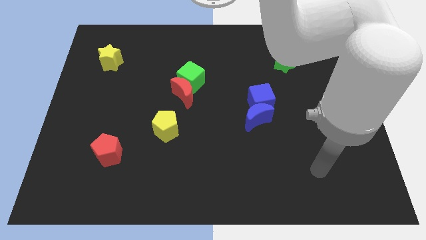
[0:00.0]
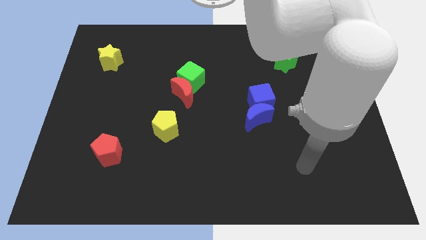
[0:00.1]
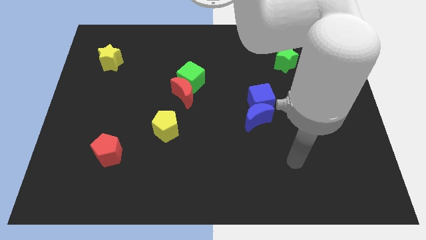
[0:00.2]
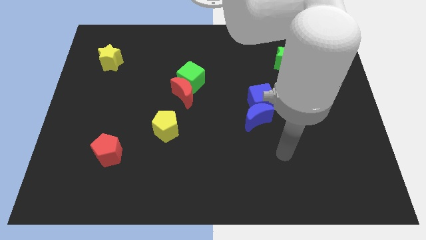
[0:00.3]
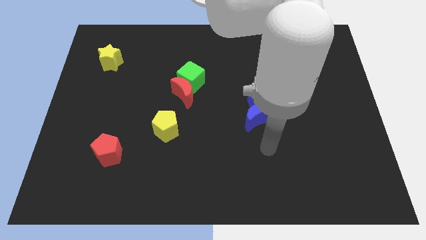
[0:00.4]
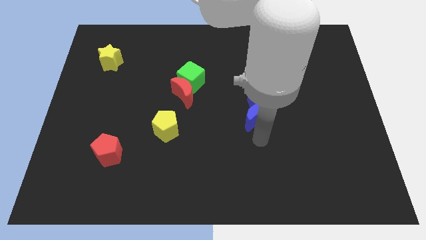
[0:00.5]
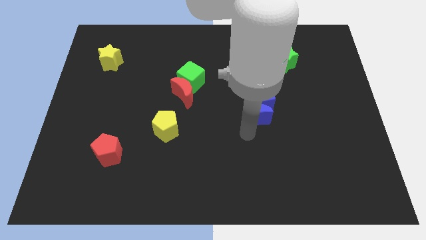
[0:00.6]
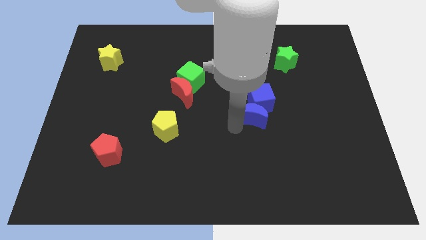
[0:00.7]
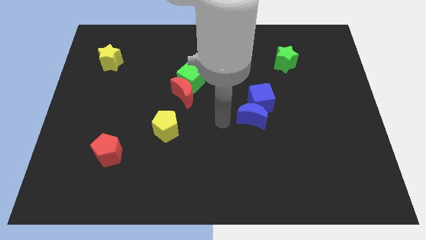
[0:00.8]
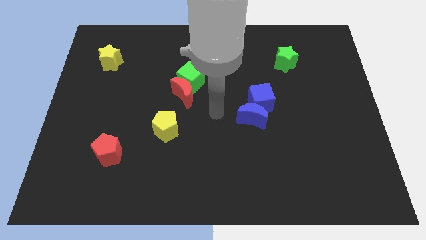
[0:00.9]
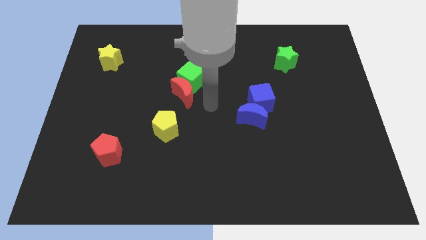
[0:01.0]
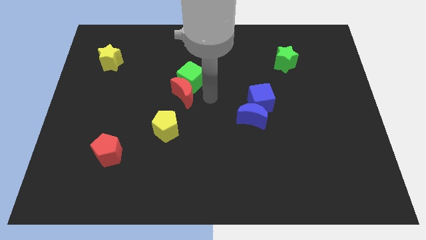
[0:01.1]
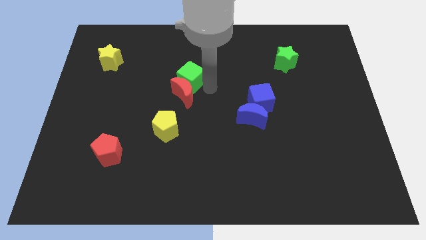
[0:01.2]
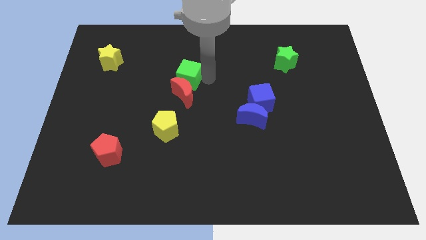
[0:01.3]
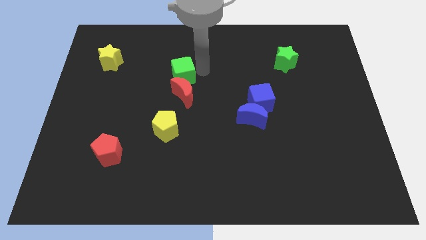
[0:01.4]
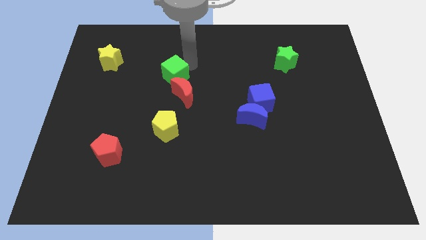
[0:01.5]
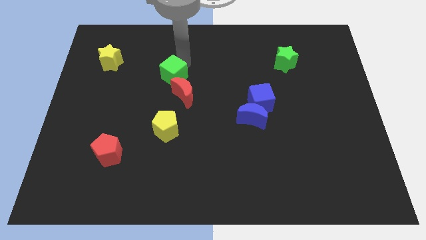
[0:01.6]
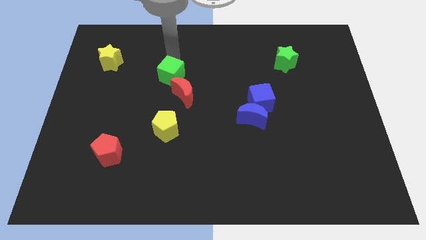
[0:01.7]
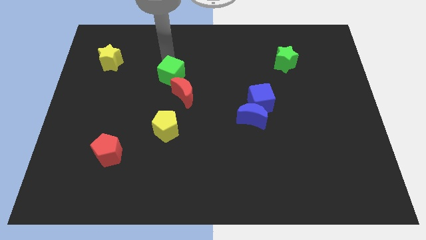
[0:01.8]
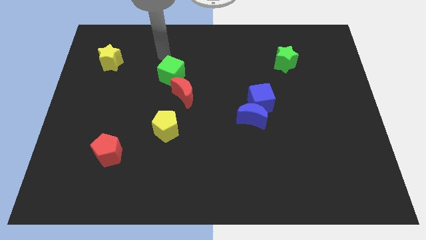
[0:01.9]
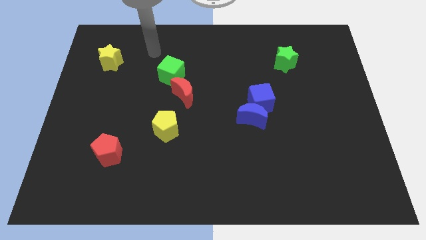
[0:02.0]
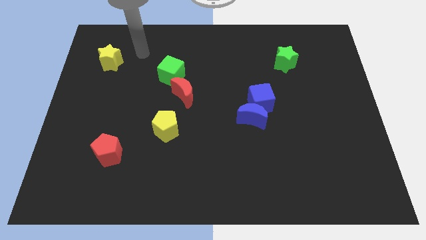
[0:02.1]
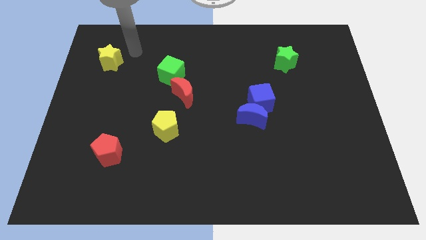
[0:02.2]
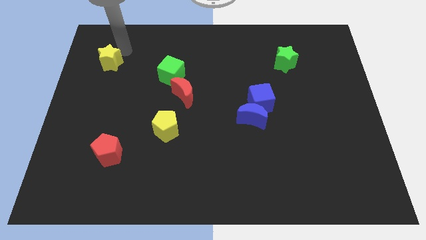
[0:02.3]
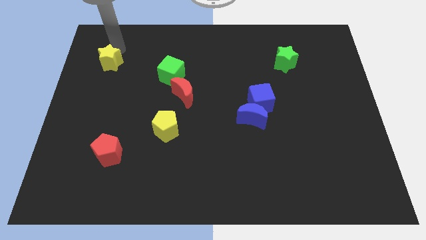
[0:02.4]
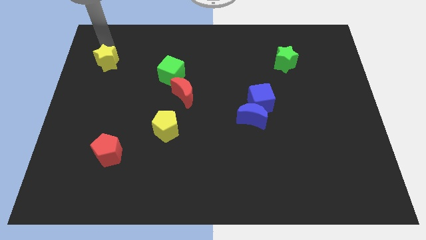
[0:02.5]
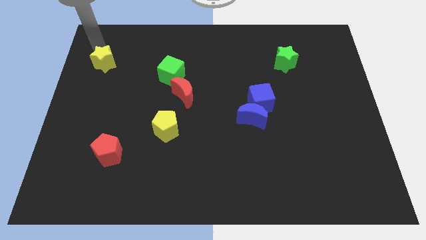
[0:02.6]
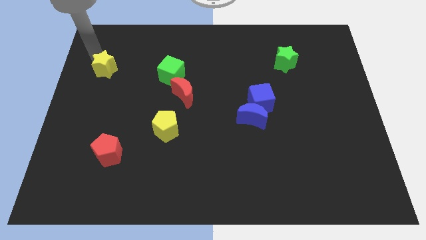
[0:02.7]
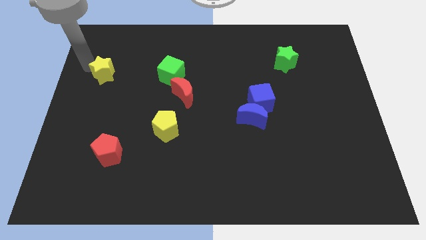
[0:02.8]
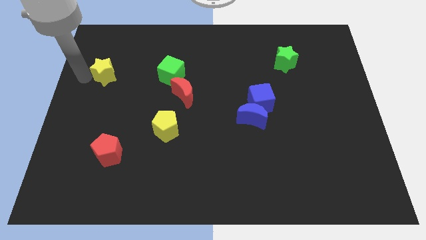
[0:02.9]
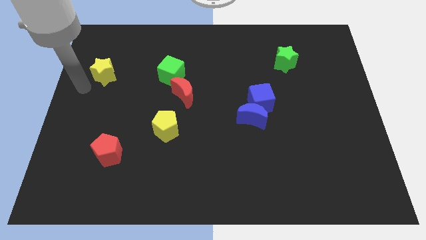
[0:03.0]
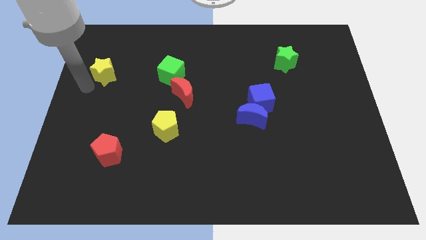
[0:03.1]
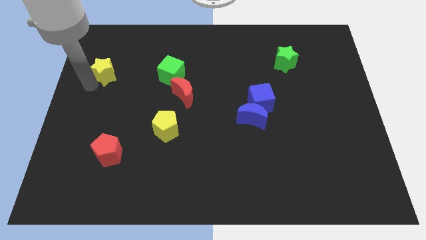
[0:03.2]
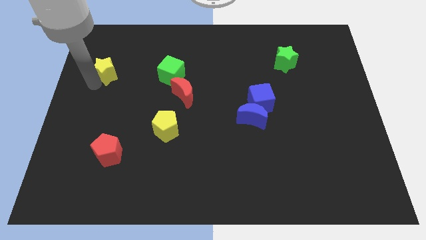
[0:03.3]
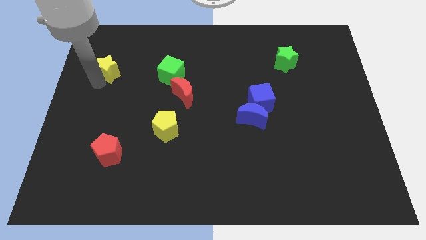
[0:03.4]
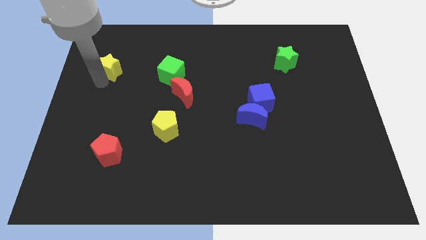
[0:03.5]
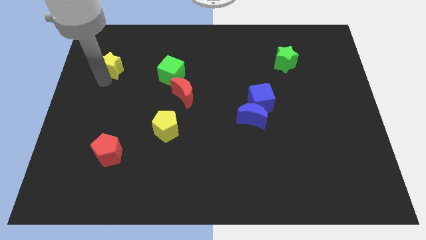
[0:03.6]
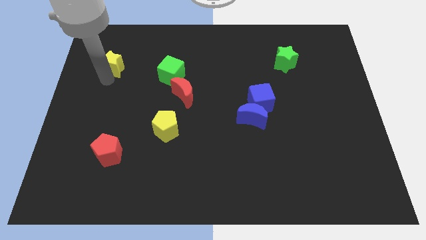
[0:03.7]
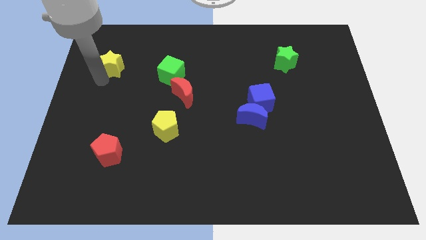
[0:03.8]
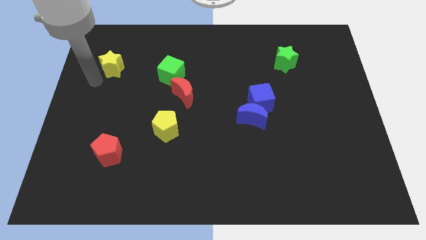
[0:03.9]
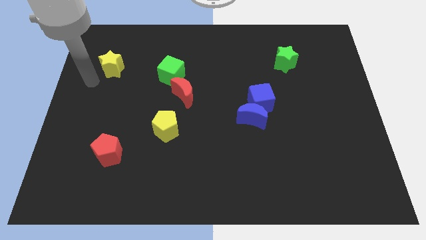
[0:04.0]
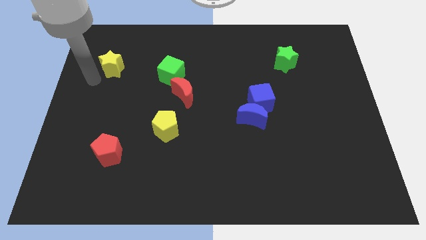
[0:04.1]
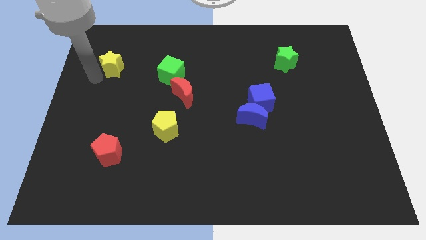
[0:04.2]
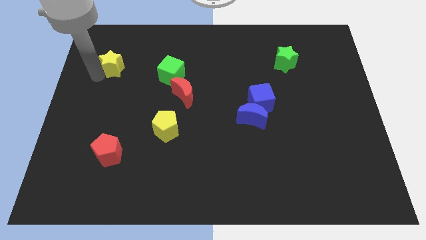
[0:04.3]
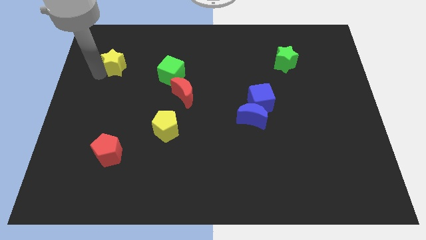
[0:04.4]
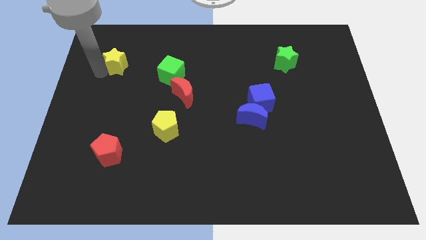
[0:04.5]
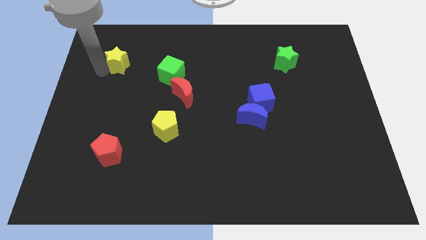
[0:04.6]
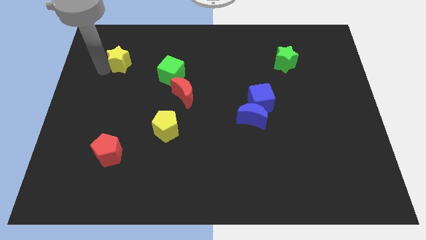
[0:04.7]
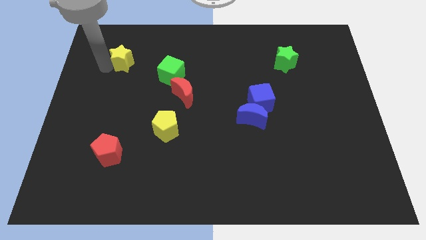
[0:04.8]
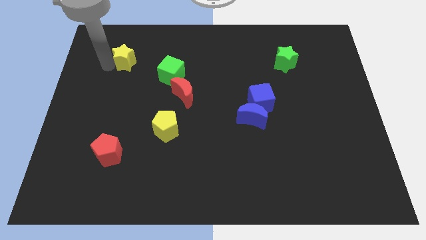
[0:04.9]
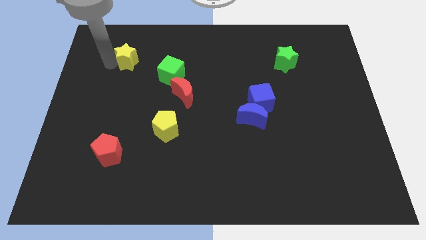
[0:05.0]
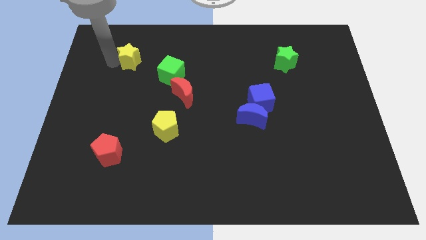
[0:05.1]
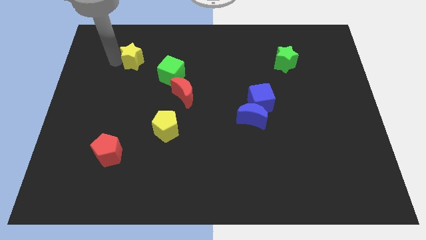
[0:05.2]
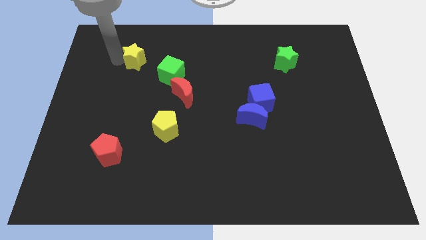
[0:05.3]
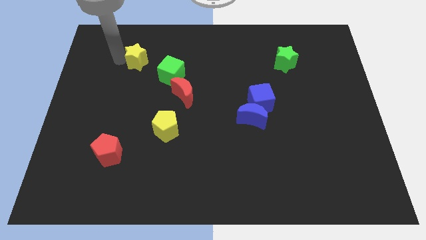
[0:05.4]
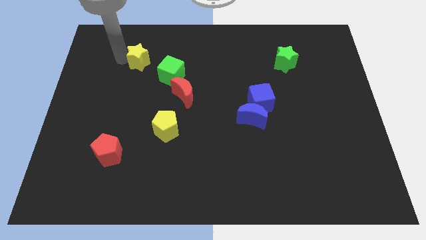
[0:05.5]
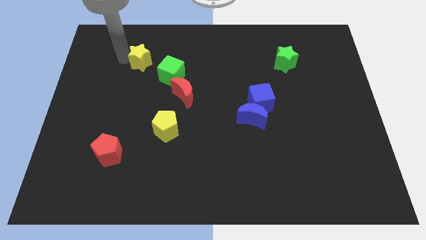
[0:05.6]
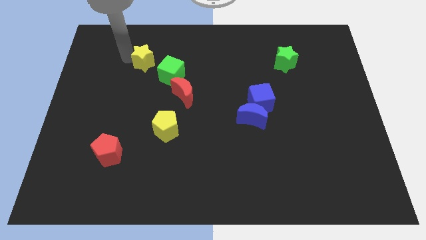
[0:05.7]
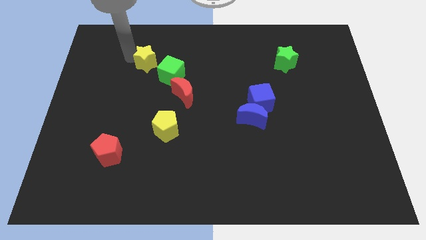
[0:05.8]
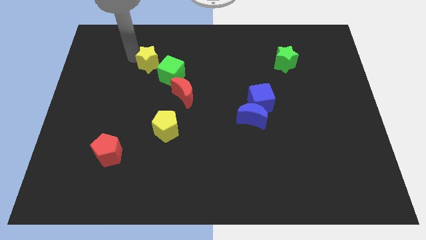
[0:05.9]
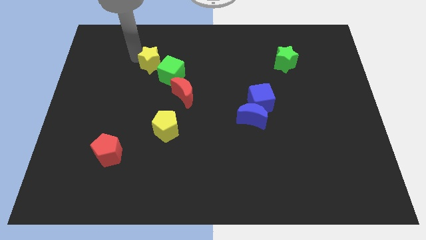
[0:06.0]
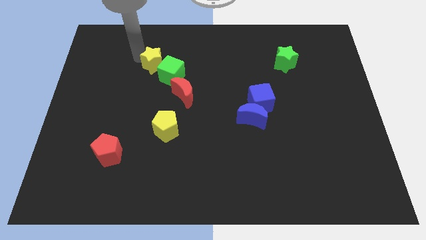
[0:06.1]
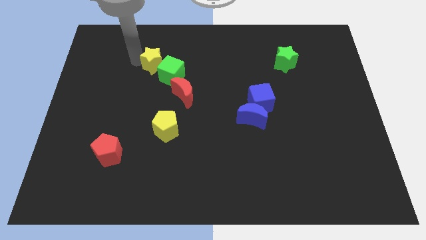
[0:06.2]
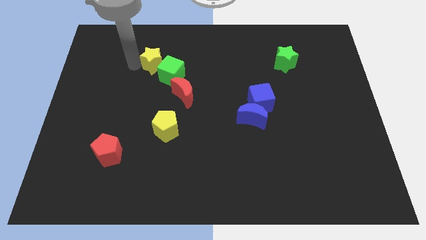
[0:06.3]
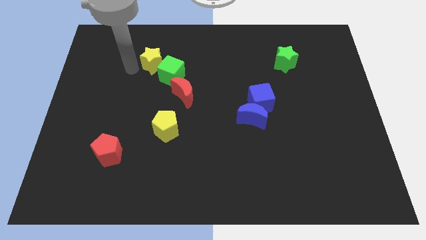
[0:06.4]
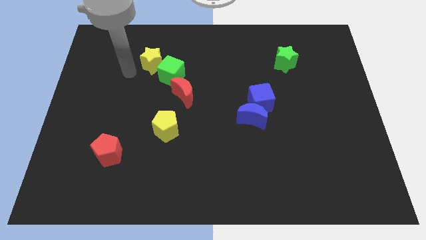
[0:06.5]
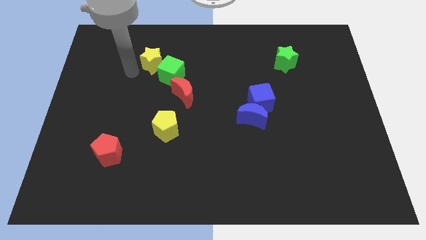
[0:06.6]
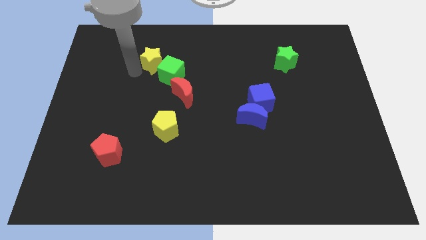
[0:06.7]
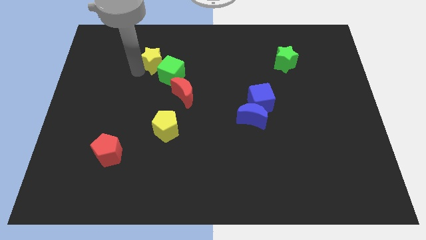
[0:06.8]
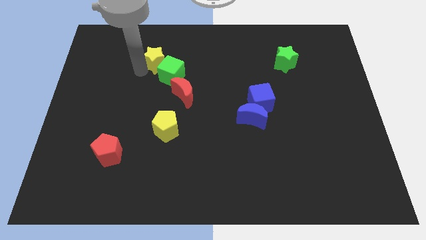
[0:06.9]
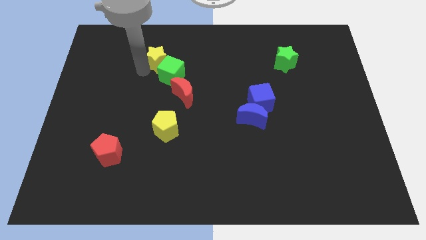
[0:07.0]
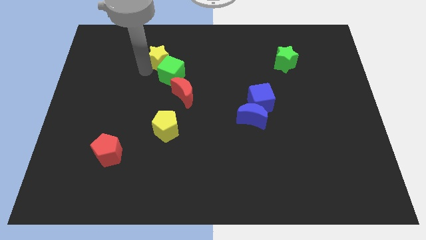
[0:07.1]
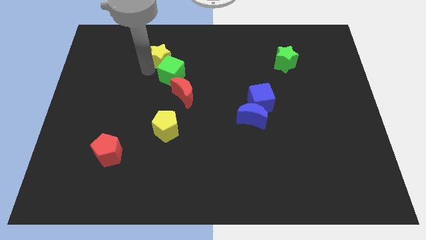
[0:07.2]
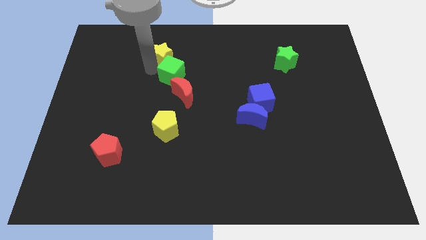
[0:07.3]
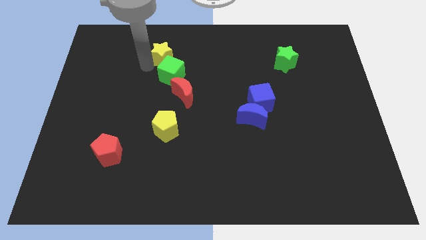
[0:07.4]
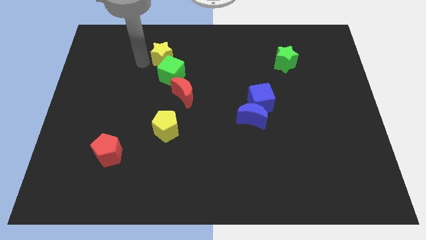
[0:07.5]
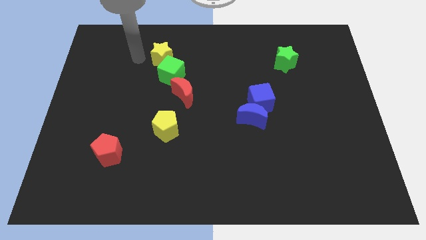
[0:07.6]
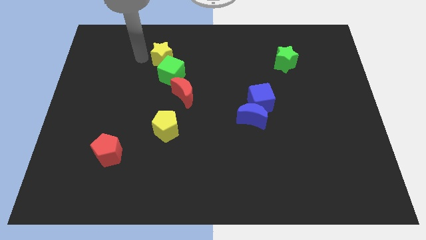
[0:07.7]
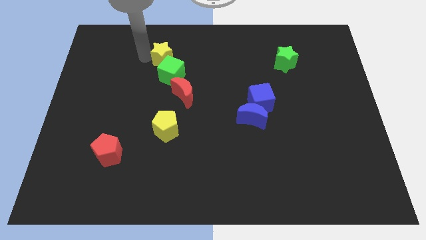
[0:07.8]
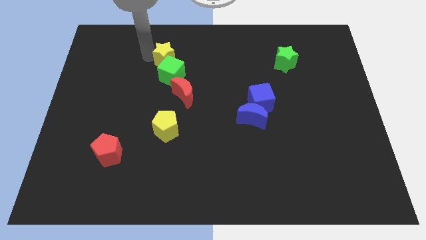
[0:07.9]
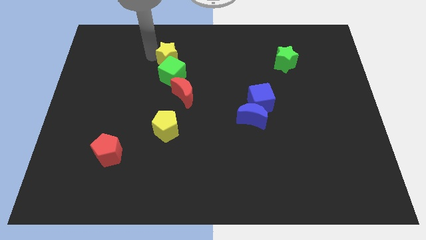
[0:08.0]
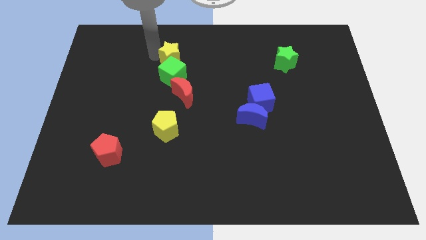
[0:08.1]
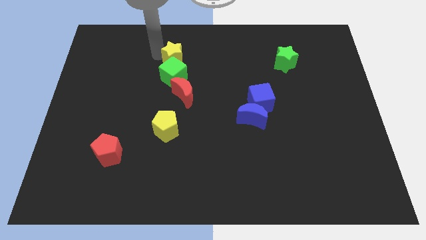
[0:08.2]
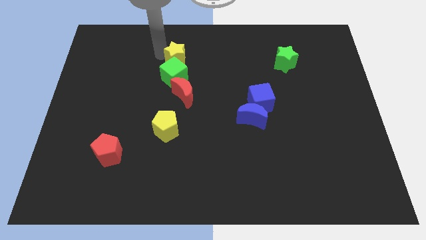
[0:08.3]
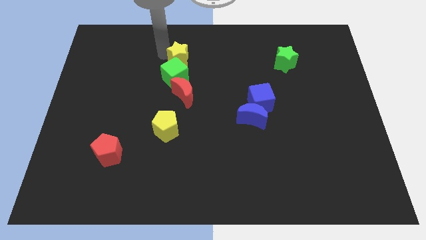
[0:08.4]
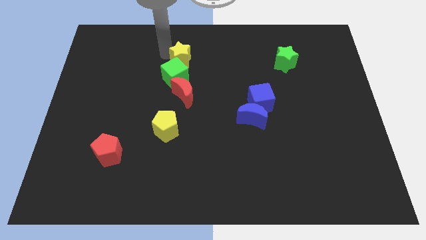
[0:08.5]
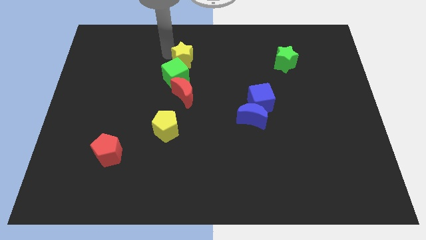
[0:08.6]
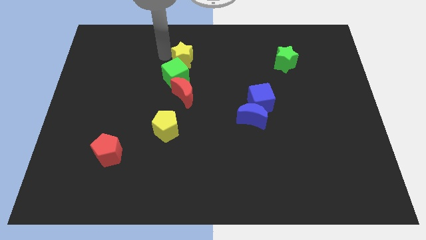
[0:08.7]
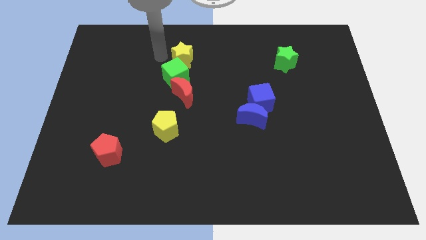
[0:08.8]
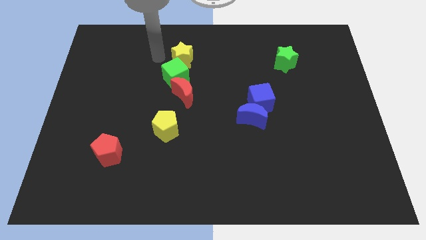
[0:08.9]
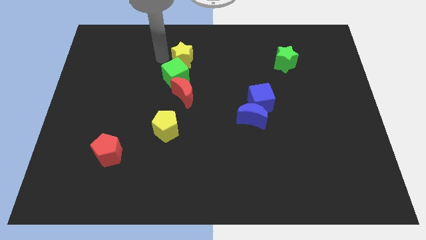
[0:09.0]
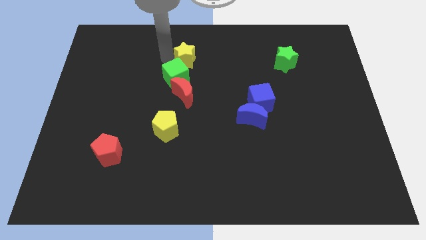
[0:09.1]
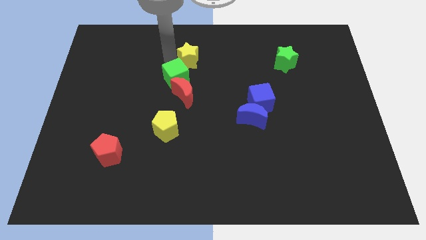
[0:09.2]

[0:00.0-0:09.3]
slide the yellow star right
